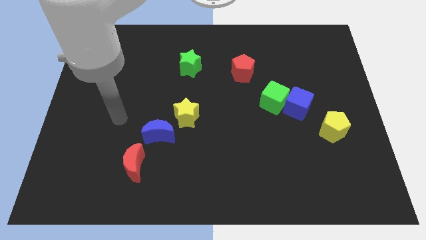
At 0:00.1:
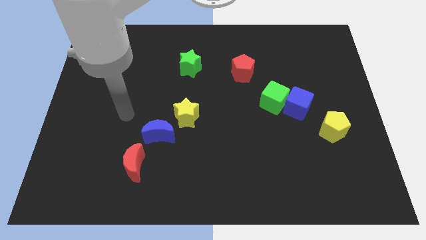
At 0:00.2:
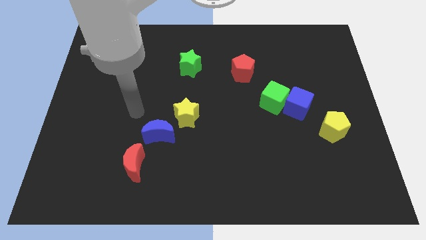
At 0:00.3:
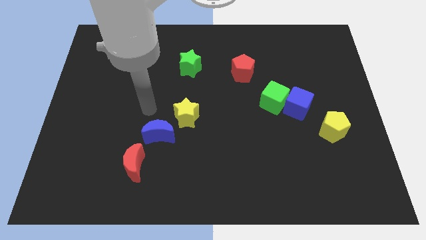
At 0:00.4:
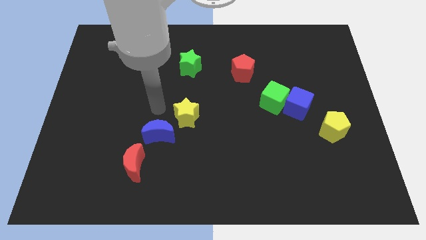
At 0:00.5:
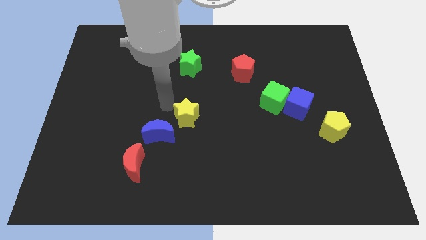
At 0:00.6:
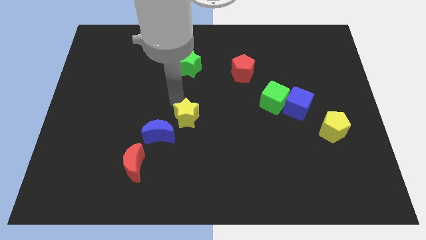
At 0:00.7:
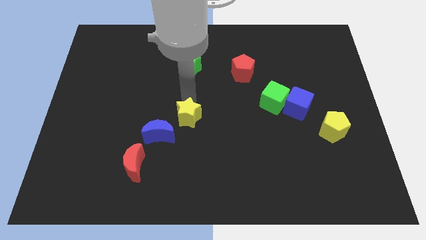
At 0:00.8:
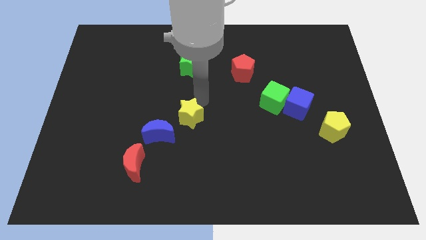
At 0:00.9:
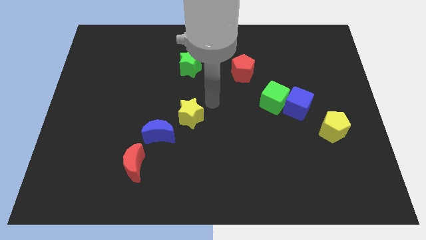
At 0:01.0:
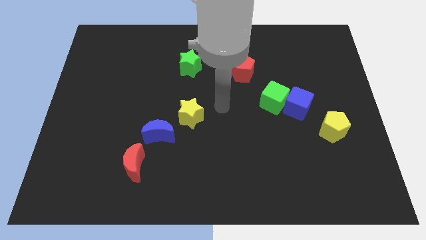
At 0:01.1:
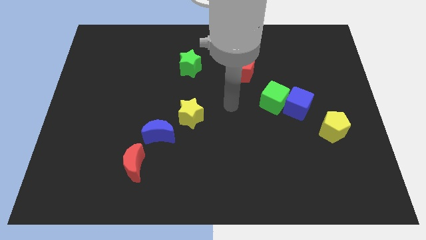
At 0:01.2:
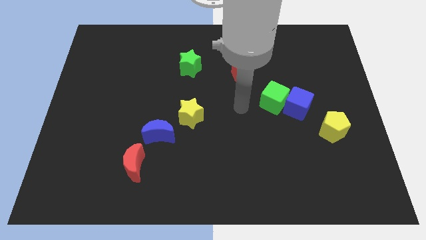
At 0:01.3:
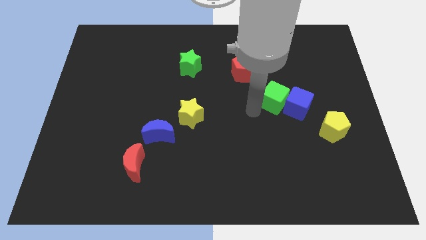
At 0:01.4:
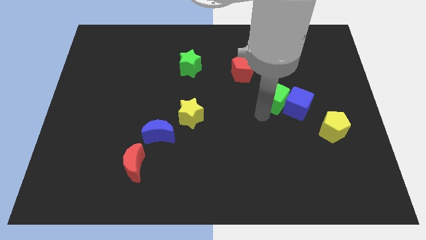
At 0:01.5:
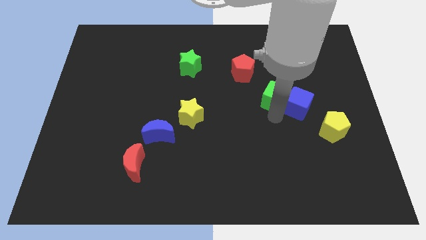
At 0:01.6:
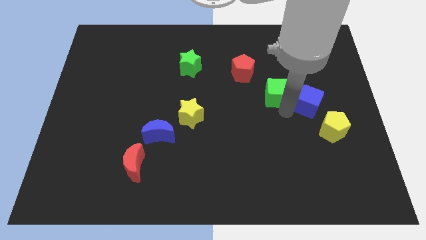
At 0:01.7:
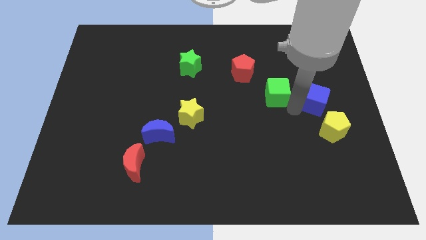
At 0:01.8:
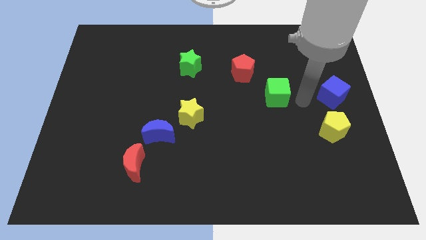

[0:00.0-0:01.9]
pull the green cube apart from the blue cube

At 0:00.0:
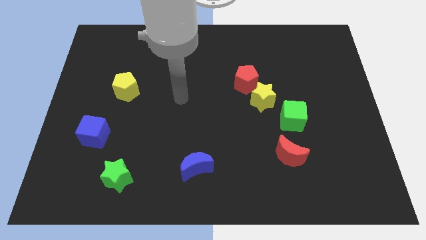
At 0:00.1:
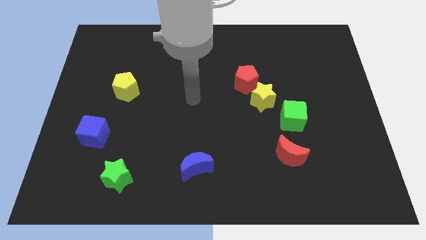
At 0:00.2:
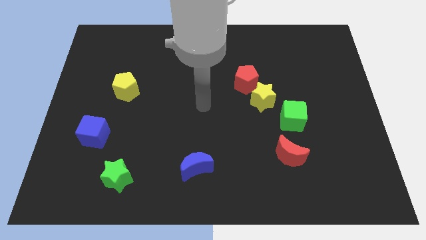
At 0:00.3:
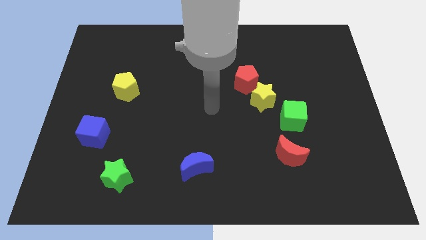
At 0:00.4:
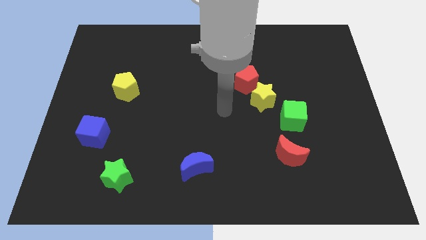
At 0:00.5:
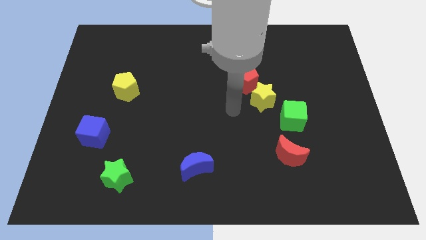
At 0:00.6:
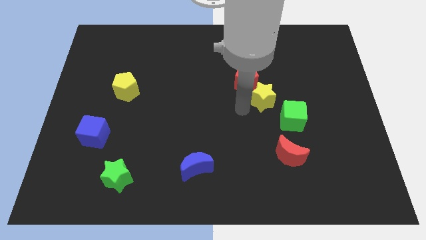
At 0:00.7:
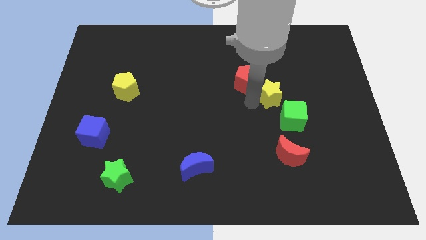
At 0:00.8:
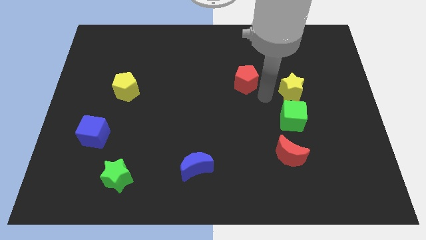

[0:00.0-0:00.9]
pull the red pentagon apart from the yellow star

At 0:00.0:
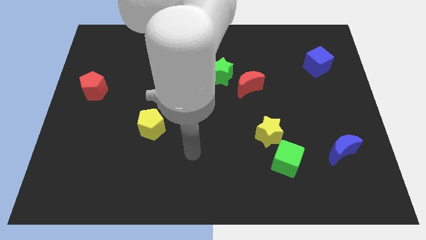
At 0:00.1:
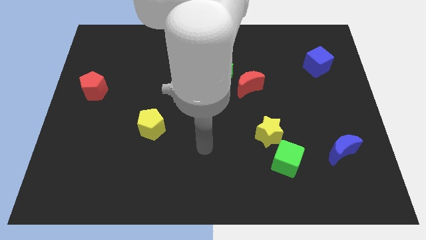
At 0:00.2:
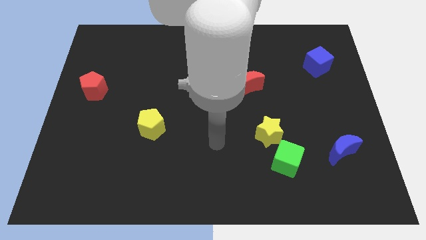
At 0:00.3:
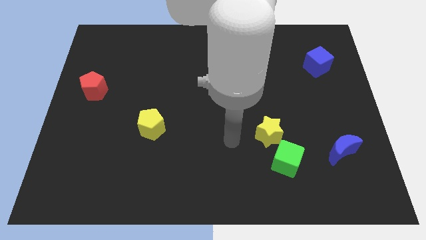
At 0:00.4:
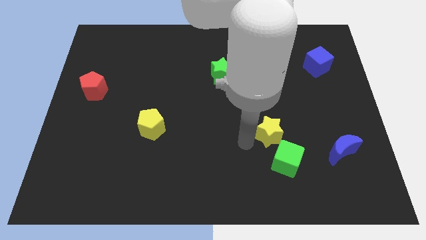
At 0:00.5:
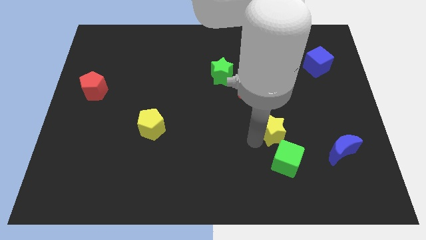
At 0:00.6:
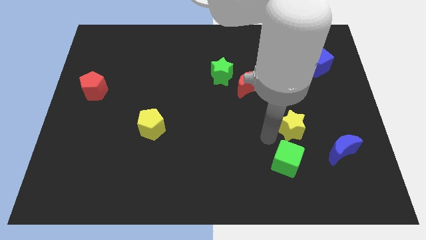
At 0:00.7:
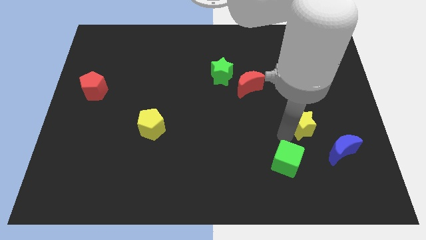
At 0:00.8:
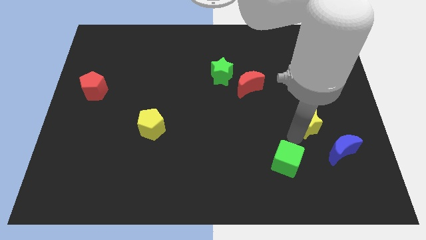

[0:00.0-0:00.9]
separate the green cube from the yellow star

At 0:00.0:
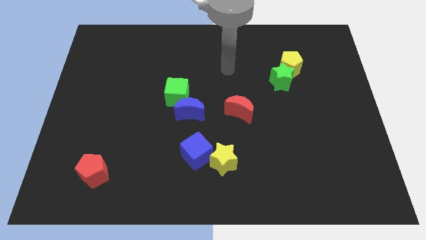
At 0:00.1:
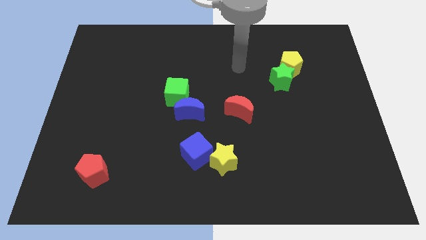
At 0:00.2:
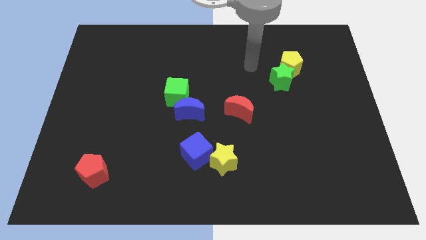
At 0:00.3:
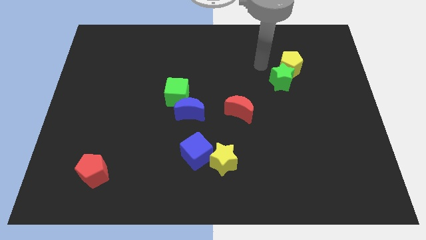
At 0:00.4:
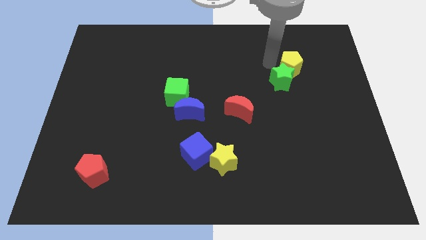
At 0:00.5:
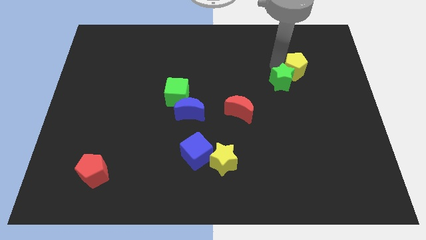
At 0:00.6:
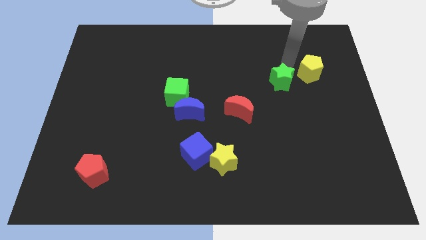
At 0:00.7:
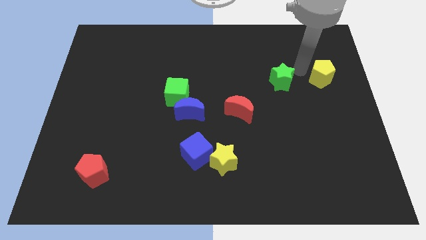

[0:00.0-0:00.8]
separate the green star from the yellow pentagon

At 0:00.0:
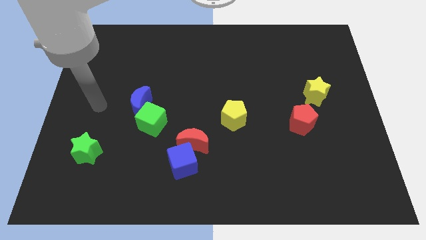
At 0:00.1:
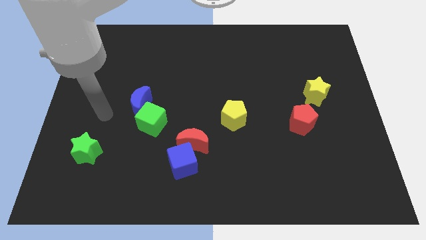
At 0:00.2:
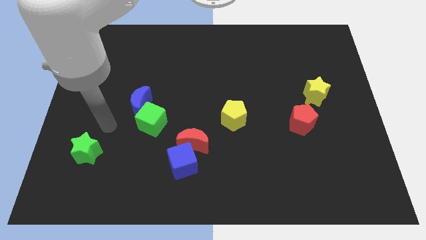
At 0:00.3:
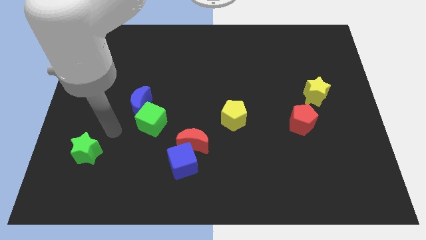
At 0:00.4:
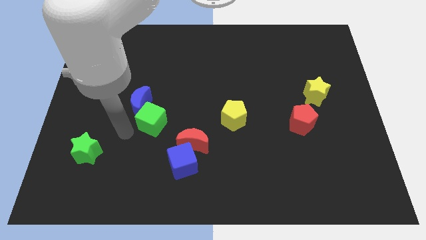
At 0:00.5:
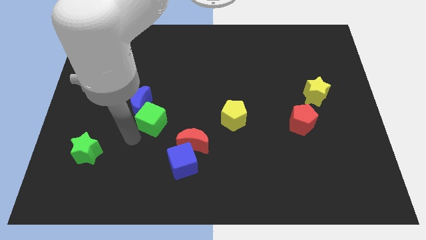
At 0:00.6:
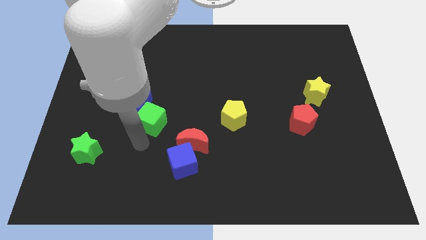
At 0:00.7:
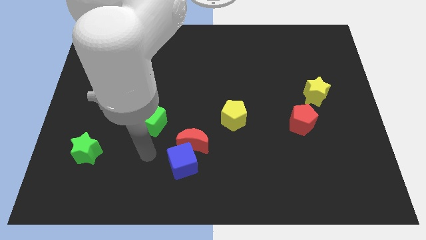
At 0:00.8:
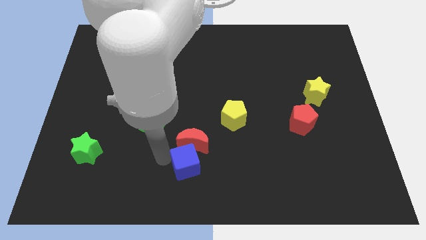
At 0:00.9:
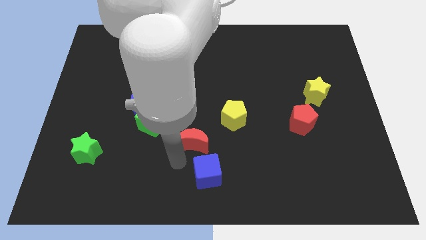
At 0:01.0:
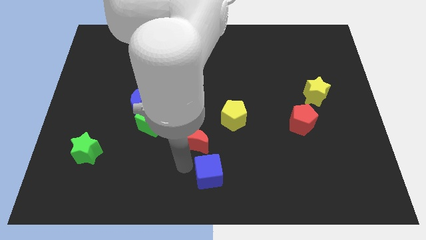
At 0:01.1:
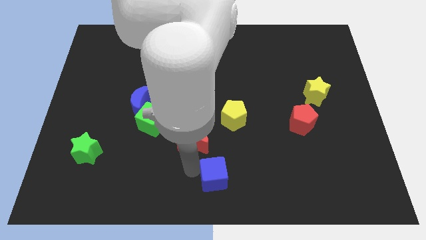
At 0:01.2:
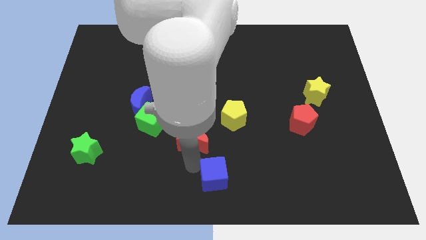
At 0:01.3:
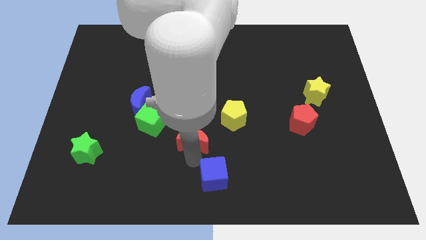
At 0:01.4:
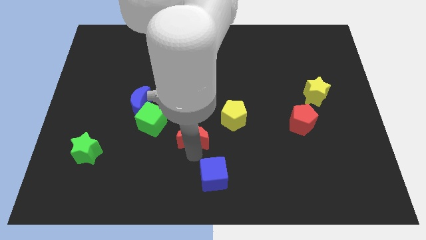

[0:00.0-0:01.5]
separate the red moon from the blue cube

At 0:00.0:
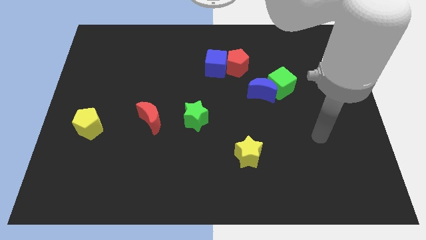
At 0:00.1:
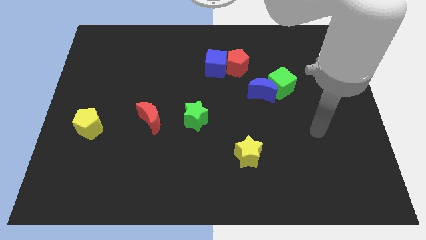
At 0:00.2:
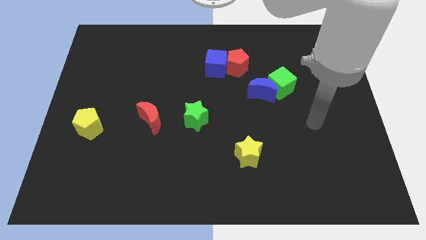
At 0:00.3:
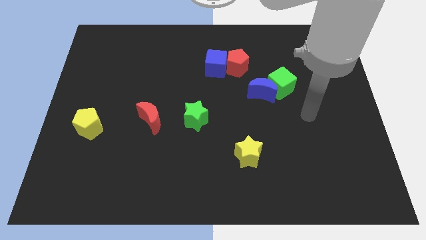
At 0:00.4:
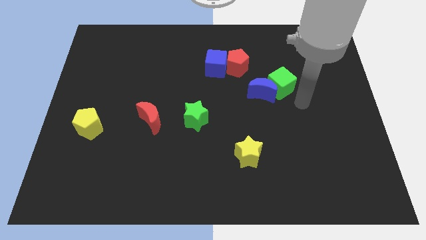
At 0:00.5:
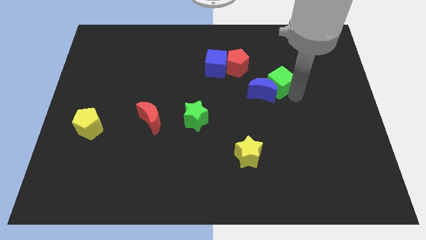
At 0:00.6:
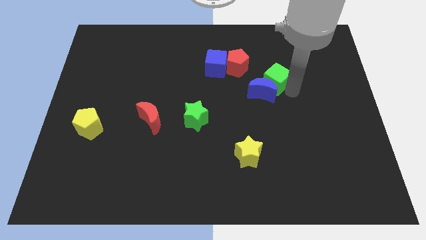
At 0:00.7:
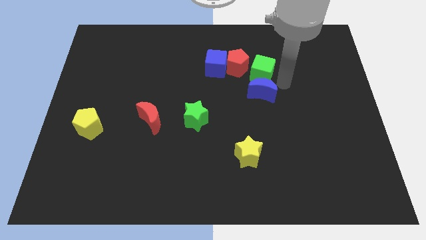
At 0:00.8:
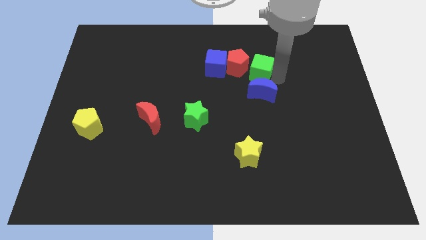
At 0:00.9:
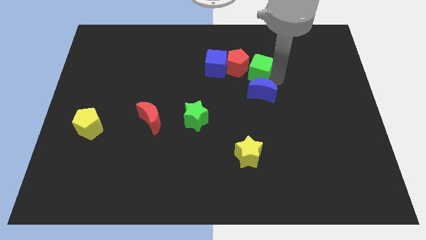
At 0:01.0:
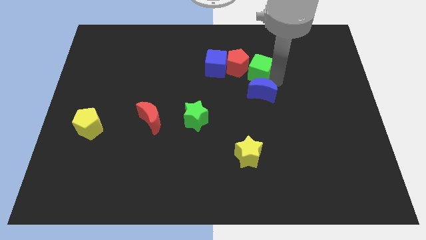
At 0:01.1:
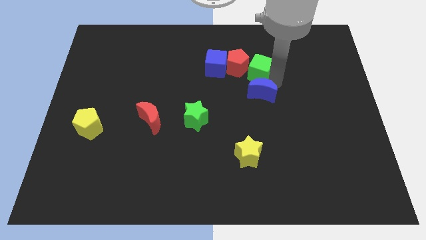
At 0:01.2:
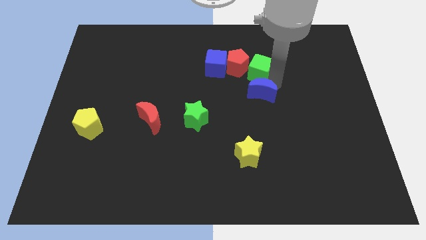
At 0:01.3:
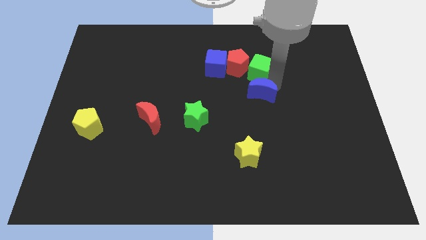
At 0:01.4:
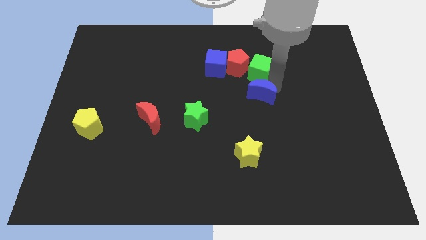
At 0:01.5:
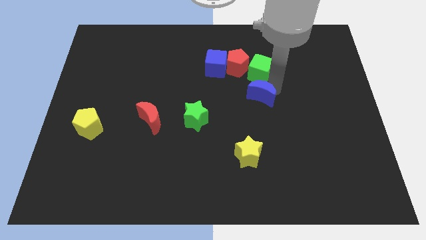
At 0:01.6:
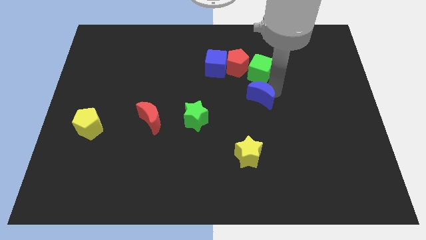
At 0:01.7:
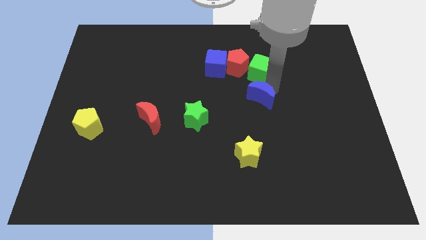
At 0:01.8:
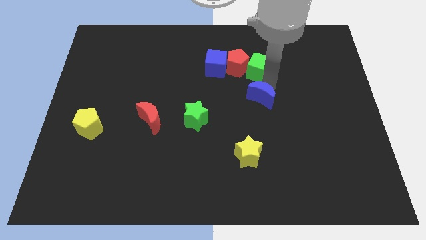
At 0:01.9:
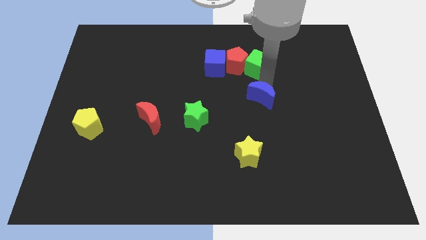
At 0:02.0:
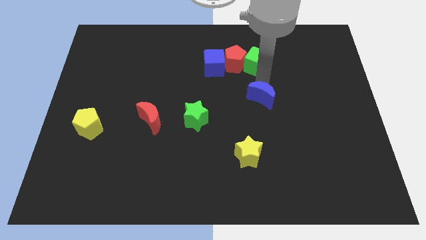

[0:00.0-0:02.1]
move the blue moon away from the green cube

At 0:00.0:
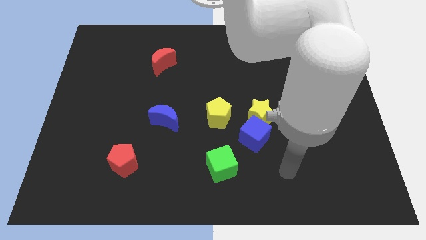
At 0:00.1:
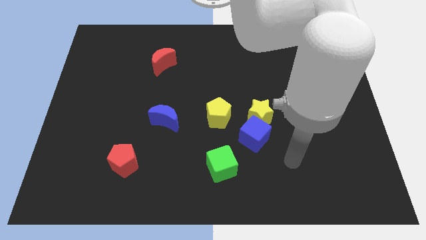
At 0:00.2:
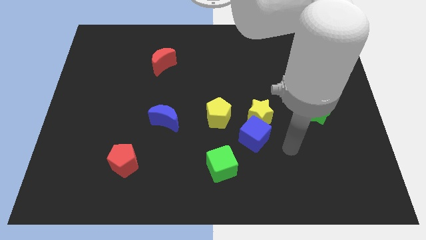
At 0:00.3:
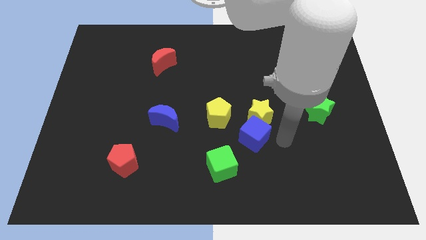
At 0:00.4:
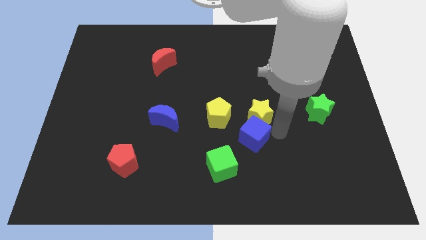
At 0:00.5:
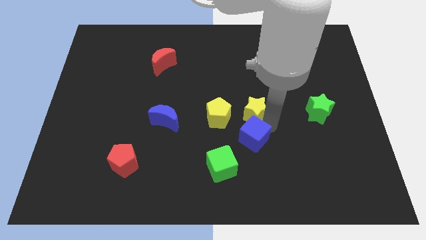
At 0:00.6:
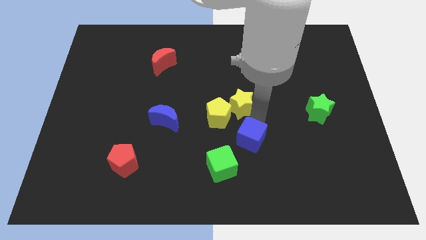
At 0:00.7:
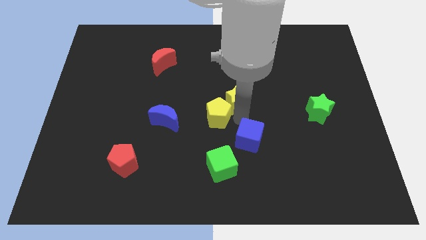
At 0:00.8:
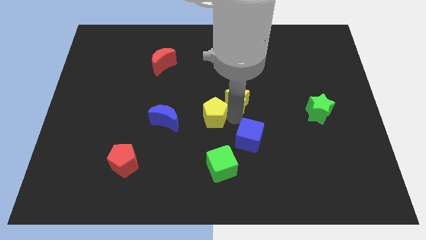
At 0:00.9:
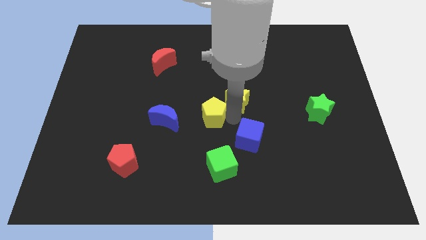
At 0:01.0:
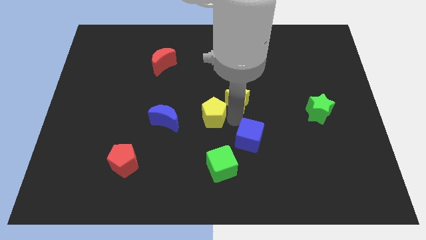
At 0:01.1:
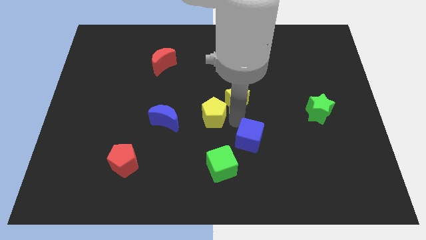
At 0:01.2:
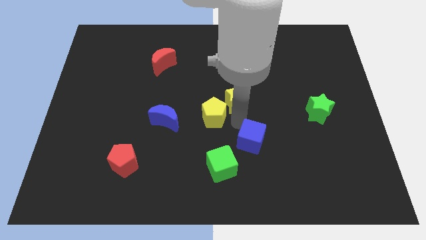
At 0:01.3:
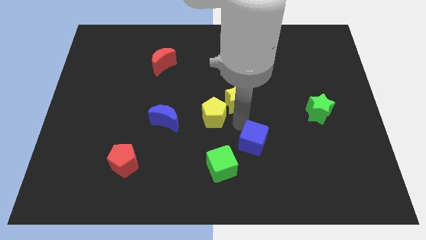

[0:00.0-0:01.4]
separate the blue cube from the yellow star and yellow pentagon
